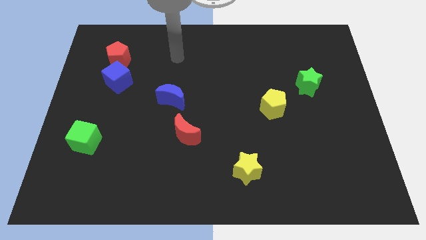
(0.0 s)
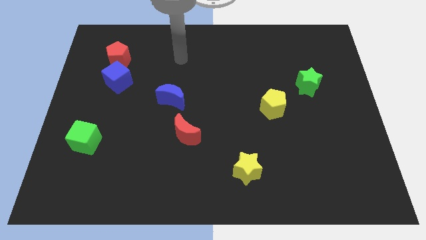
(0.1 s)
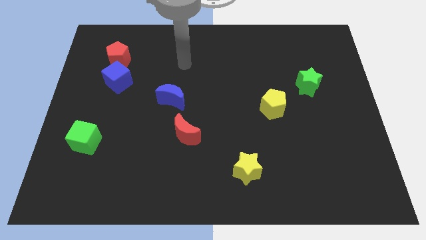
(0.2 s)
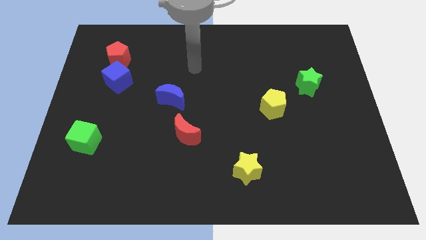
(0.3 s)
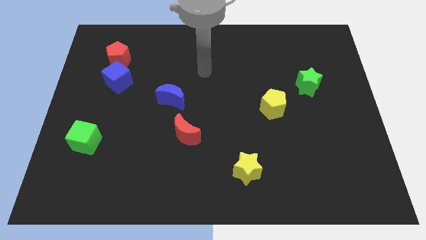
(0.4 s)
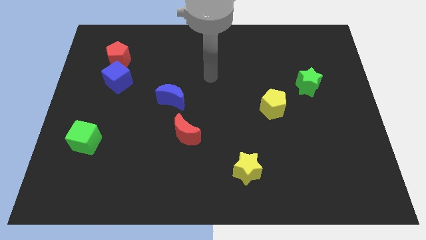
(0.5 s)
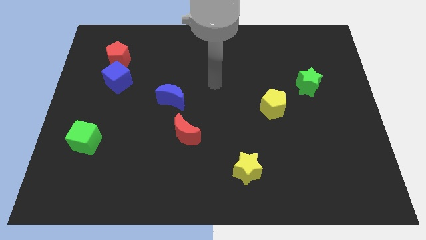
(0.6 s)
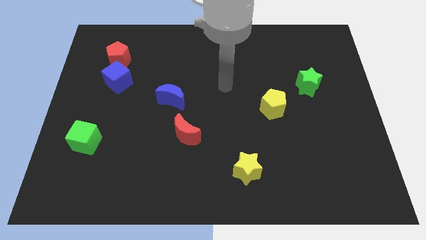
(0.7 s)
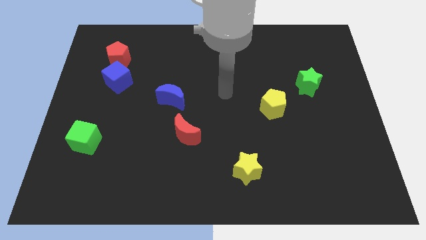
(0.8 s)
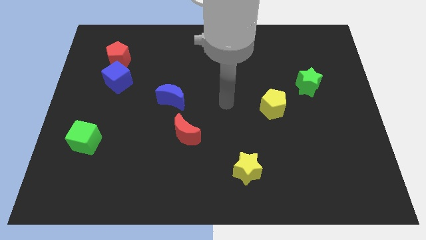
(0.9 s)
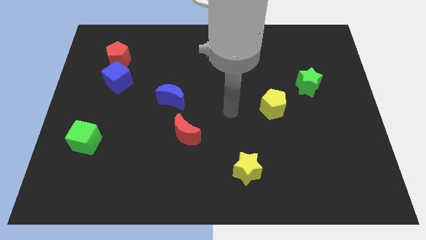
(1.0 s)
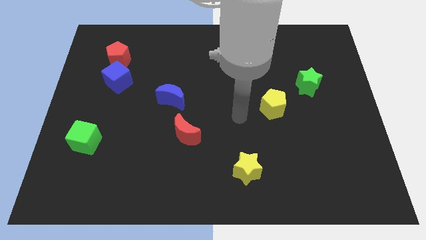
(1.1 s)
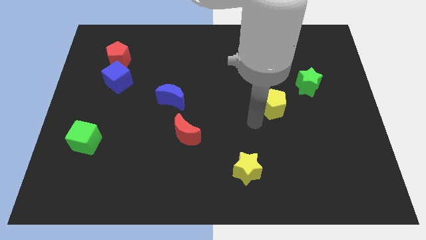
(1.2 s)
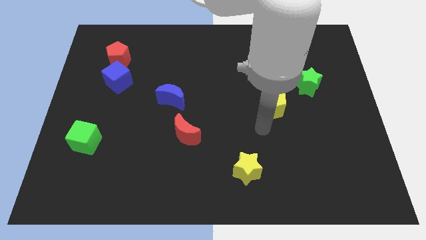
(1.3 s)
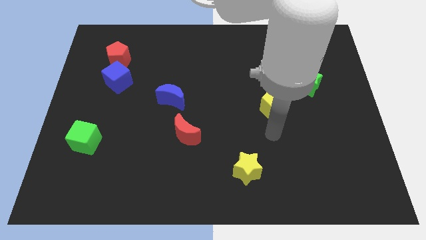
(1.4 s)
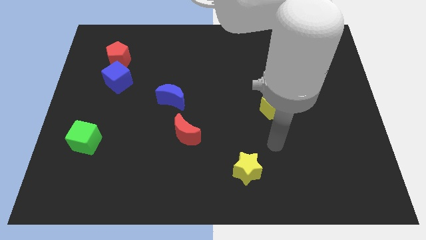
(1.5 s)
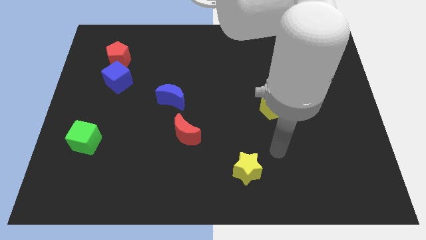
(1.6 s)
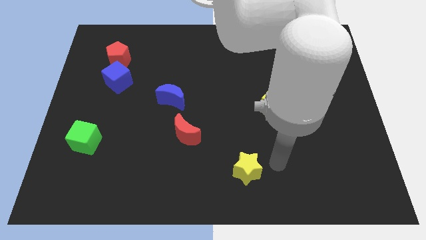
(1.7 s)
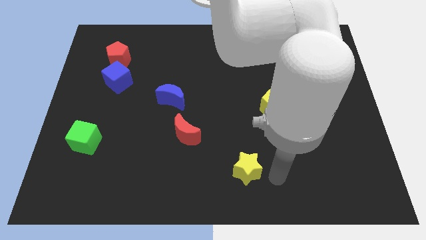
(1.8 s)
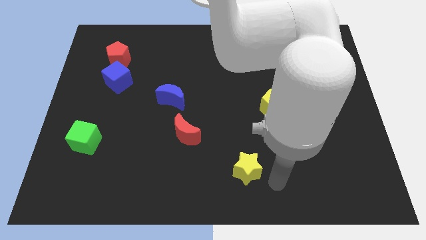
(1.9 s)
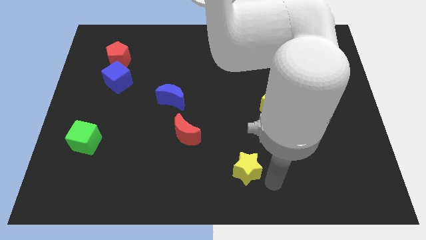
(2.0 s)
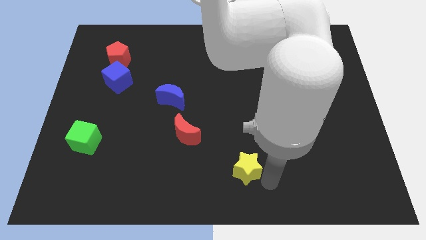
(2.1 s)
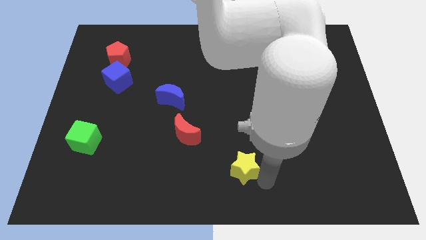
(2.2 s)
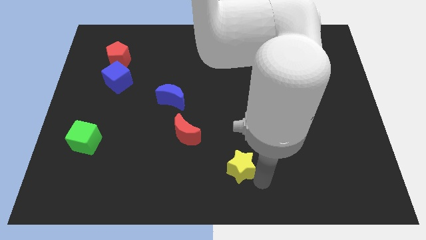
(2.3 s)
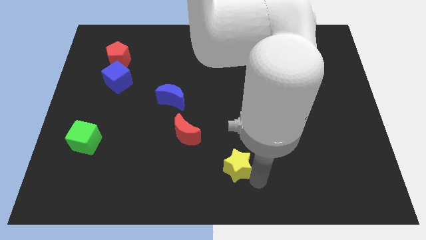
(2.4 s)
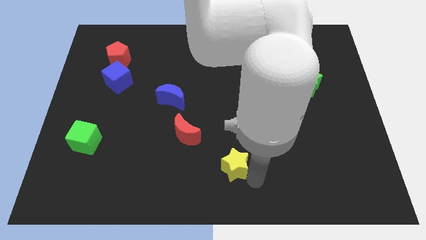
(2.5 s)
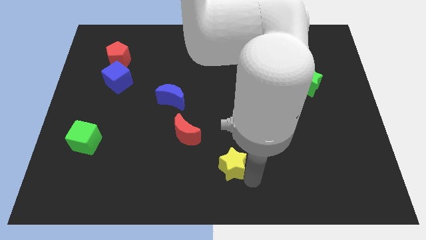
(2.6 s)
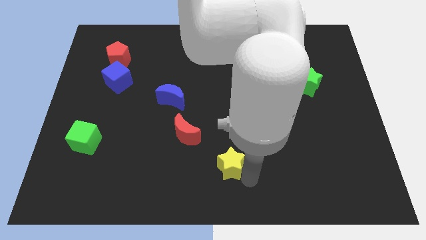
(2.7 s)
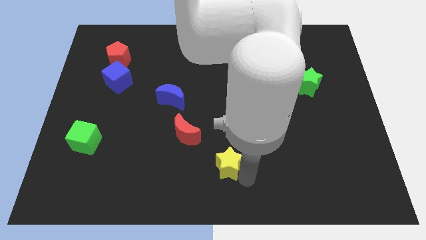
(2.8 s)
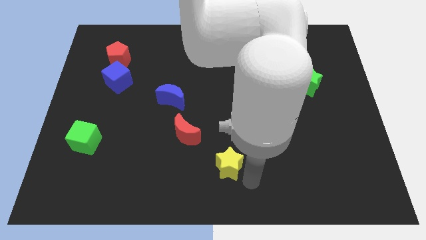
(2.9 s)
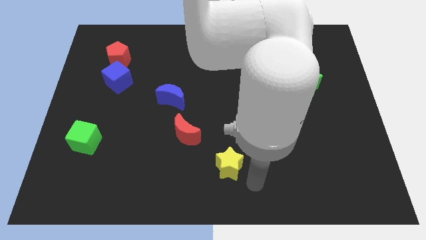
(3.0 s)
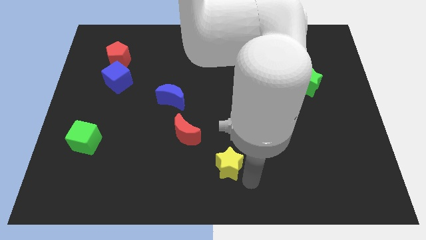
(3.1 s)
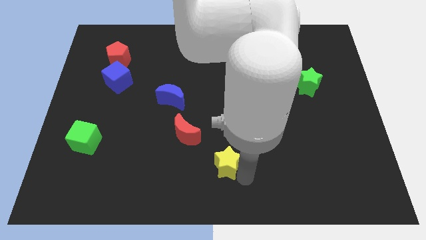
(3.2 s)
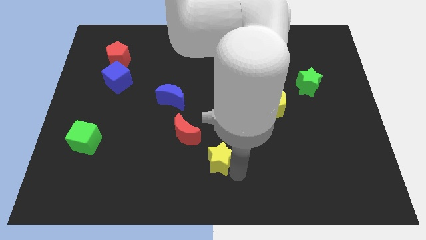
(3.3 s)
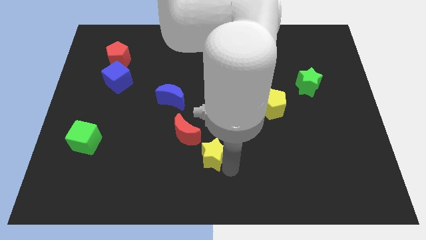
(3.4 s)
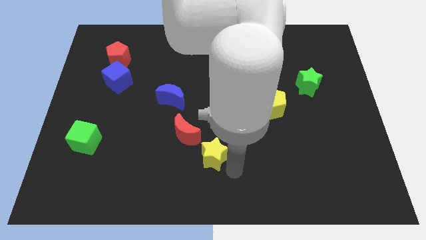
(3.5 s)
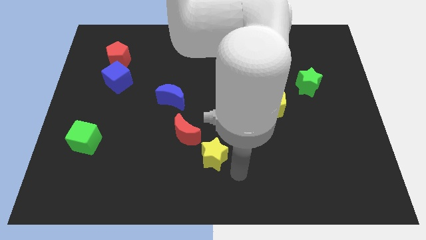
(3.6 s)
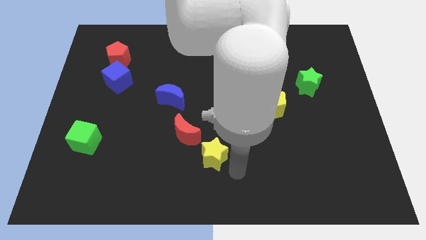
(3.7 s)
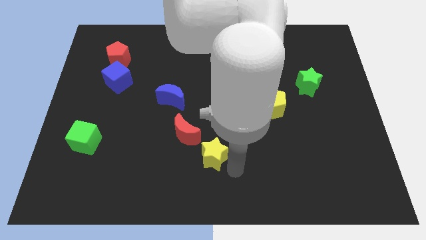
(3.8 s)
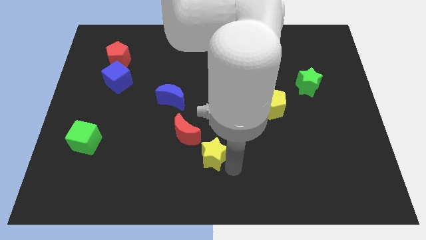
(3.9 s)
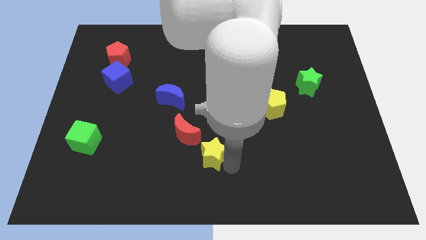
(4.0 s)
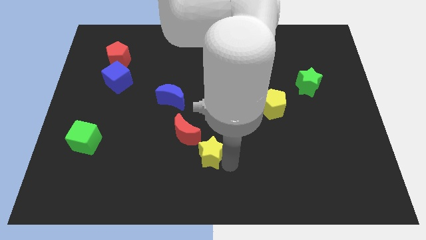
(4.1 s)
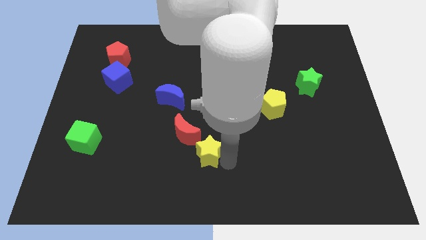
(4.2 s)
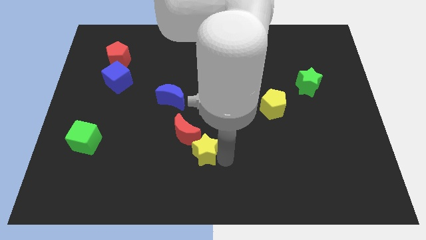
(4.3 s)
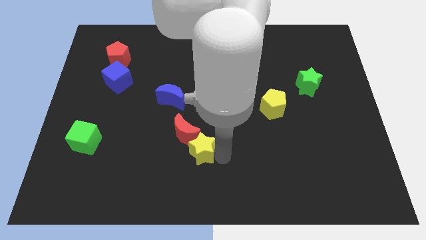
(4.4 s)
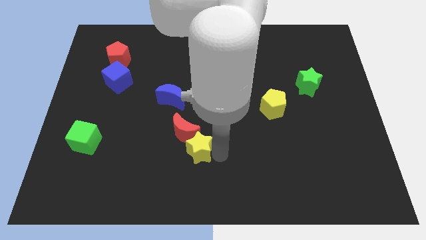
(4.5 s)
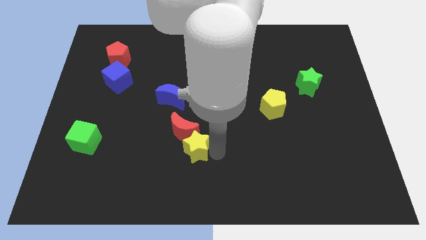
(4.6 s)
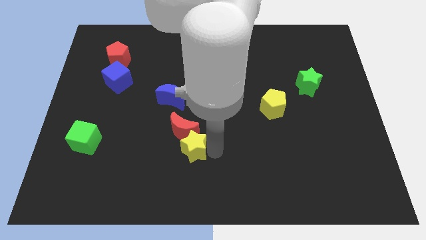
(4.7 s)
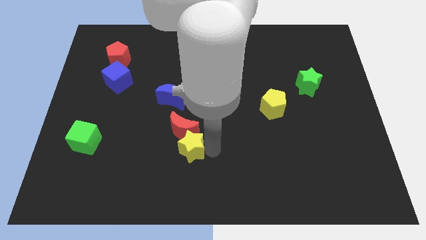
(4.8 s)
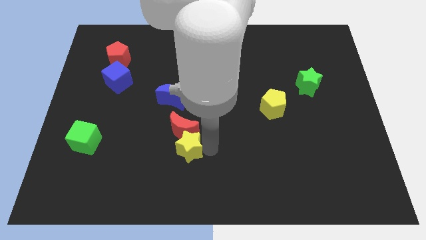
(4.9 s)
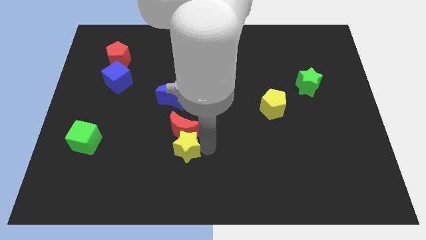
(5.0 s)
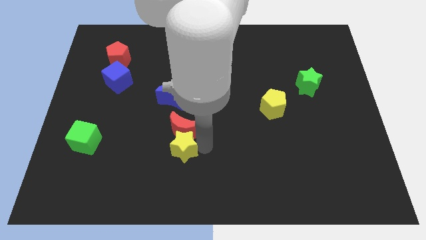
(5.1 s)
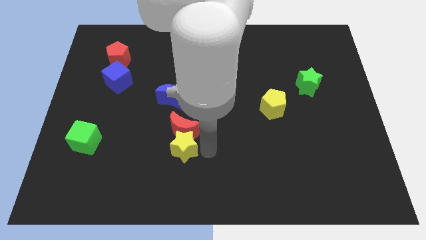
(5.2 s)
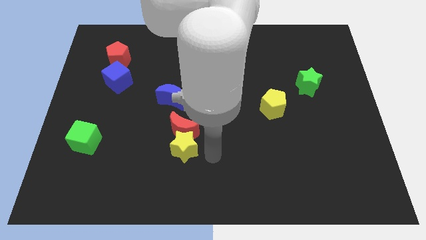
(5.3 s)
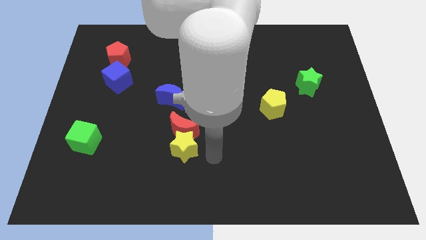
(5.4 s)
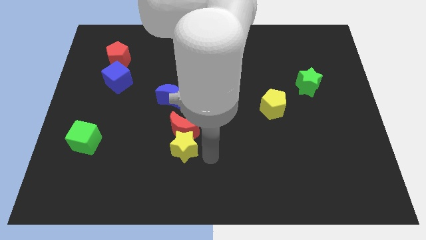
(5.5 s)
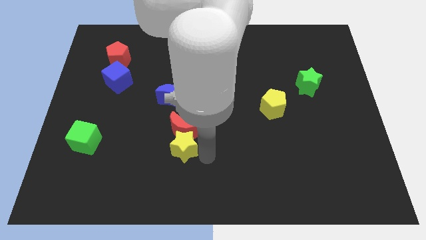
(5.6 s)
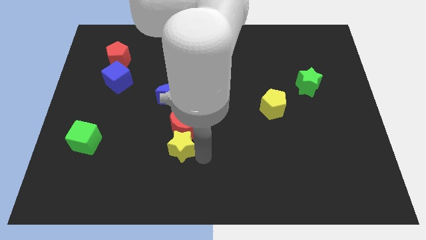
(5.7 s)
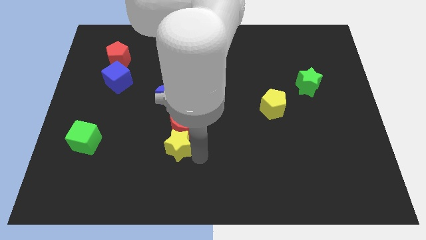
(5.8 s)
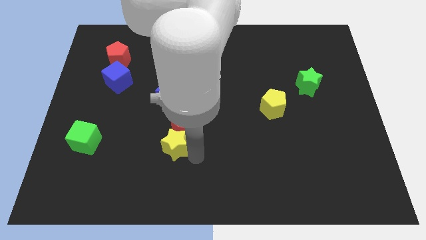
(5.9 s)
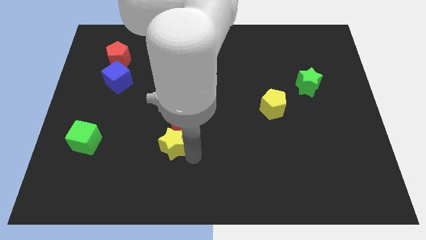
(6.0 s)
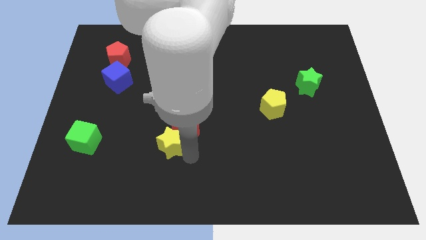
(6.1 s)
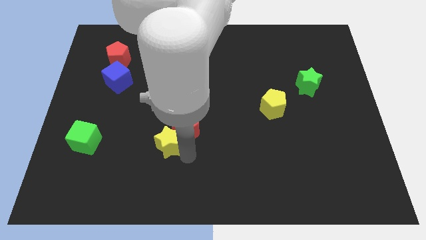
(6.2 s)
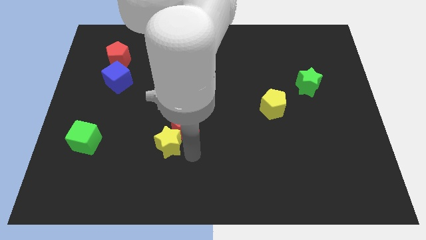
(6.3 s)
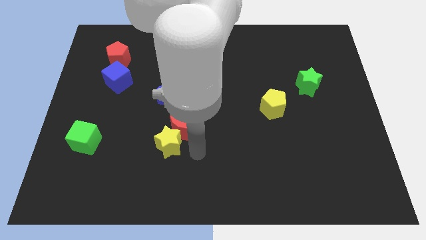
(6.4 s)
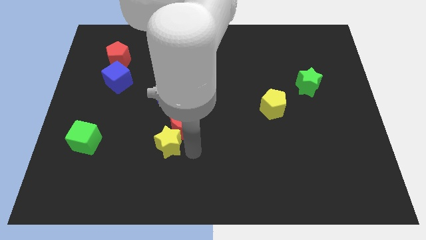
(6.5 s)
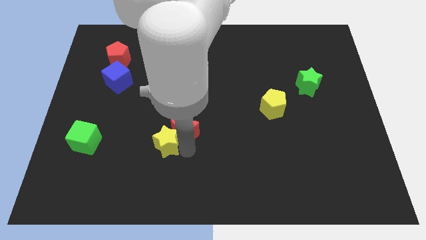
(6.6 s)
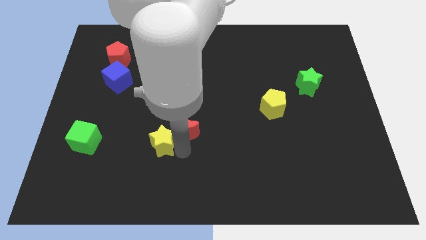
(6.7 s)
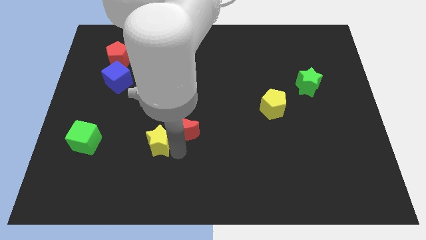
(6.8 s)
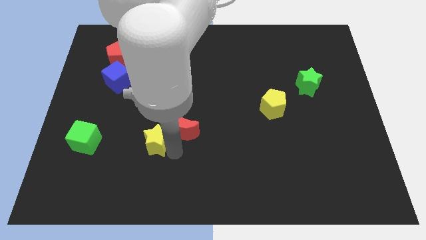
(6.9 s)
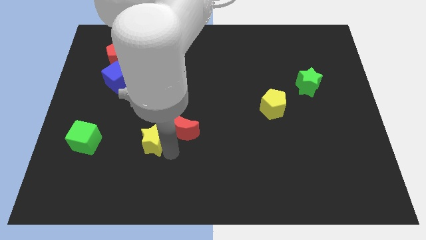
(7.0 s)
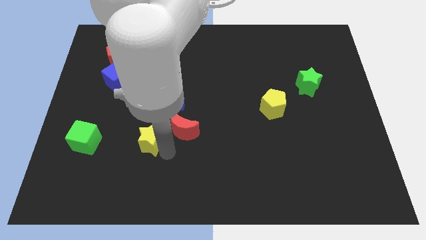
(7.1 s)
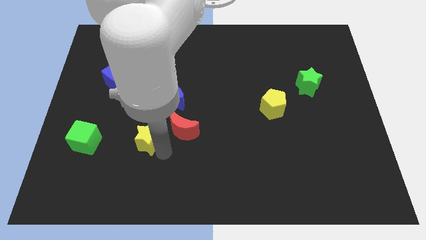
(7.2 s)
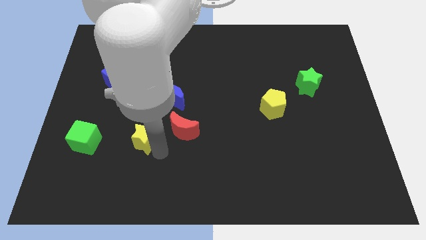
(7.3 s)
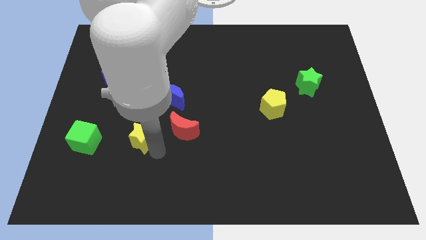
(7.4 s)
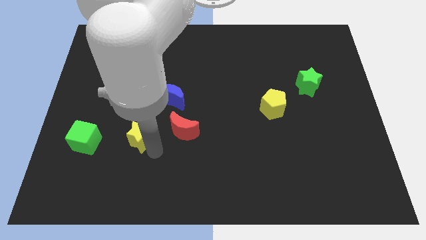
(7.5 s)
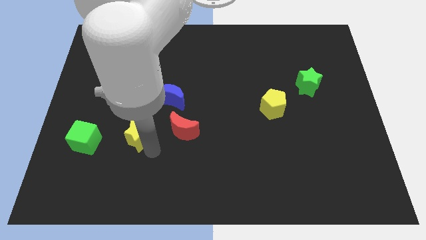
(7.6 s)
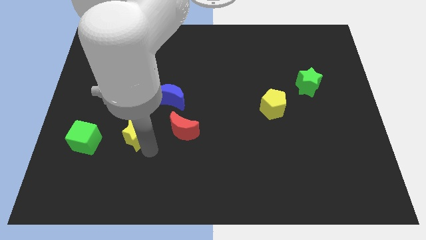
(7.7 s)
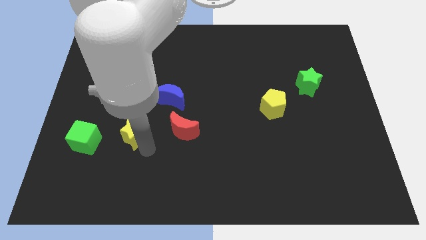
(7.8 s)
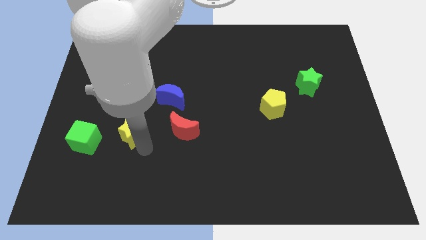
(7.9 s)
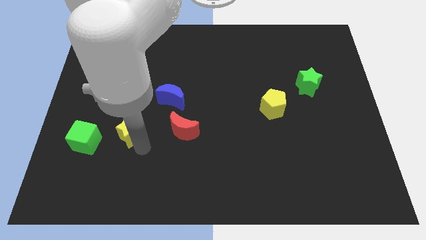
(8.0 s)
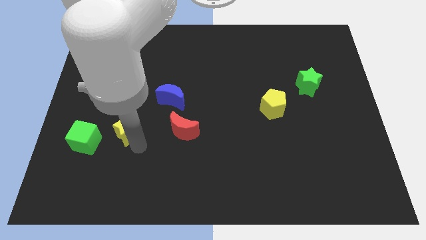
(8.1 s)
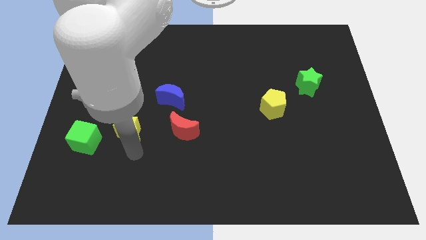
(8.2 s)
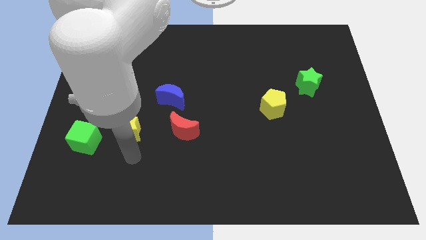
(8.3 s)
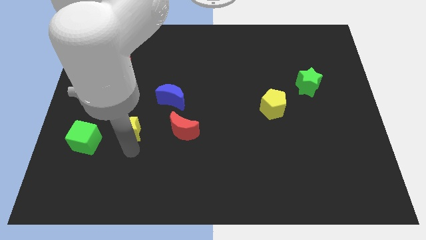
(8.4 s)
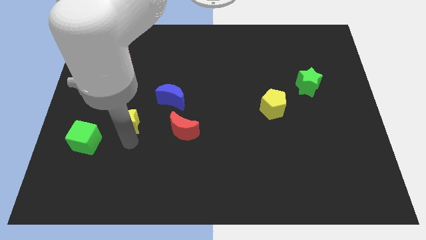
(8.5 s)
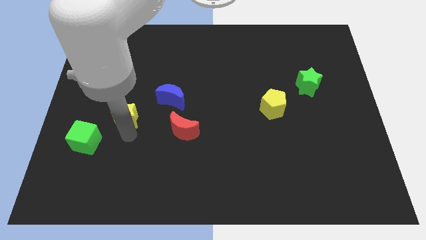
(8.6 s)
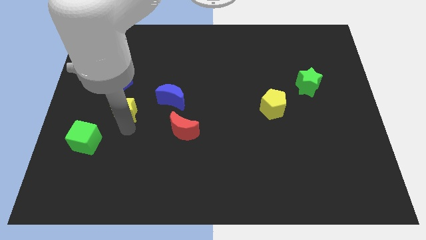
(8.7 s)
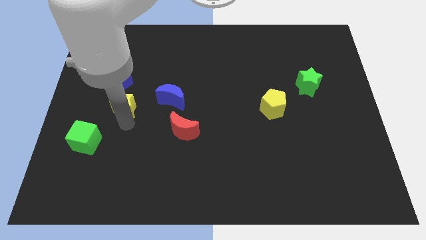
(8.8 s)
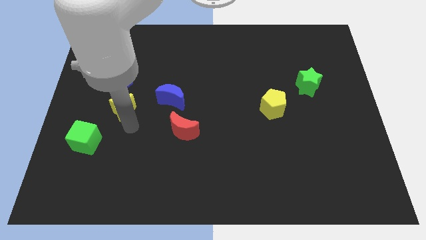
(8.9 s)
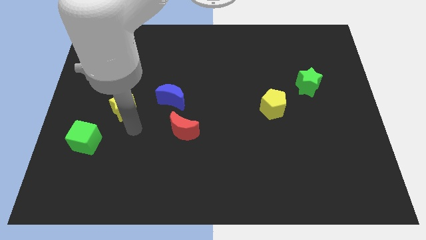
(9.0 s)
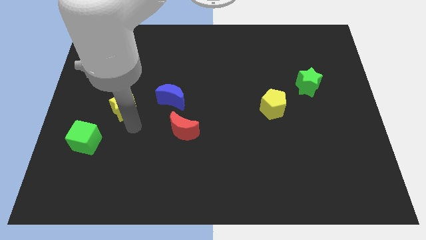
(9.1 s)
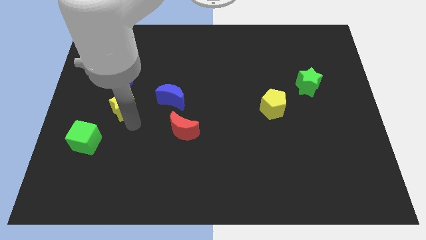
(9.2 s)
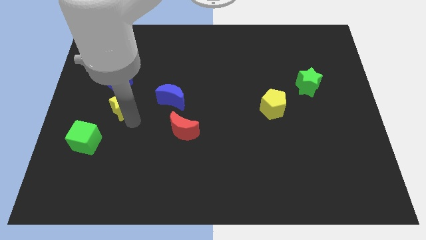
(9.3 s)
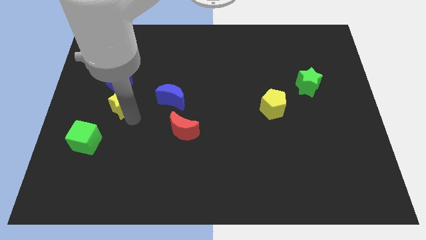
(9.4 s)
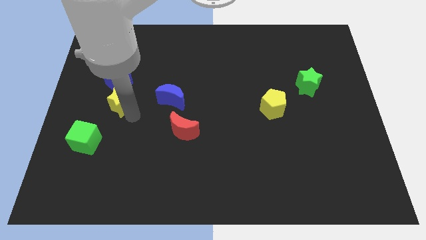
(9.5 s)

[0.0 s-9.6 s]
move the yellow star below the red pentagon
